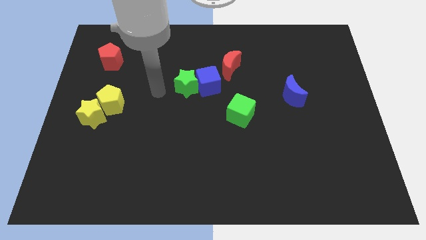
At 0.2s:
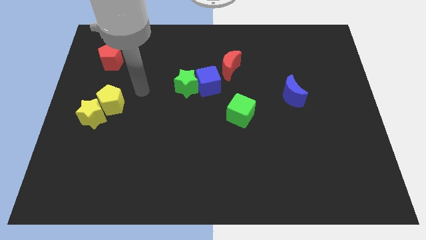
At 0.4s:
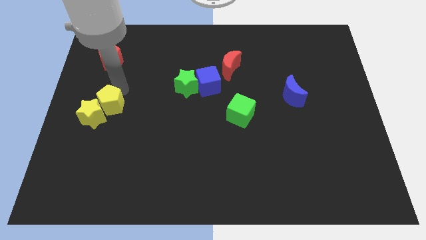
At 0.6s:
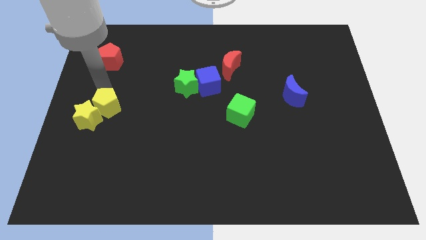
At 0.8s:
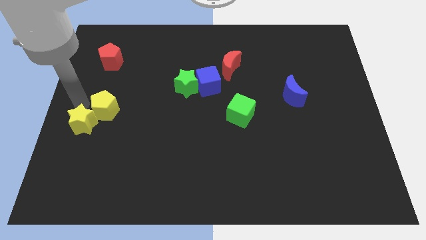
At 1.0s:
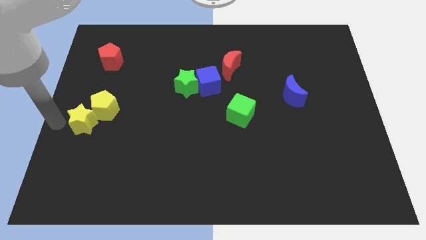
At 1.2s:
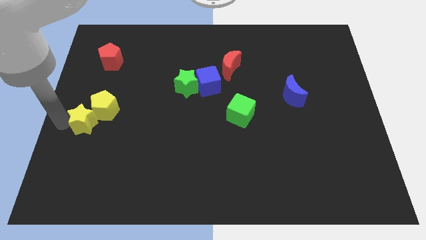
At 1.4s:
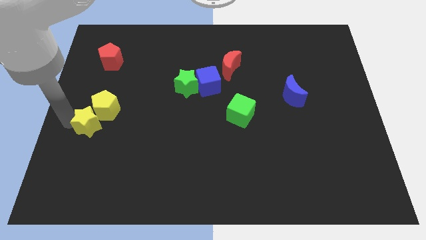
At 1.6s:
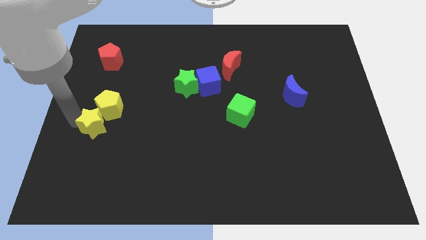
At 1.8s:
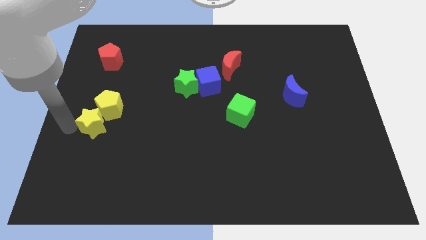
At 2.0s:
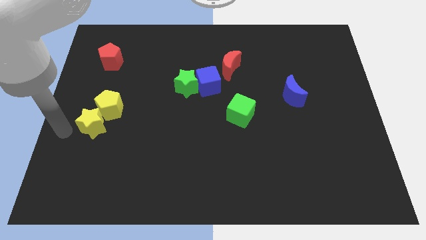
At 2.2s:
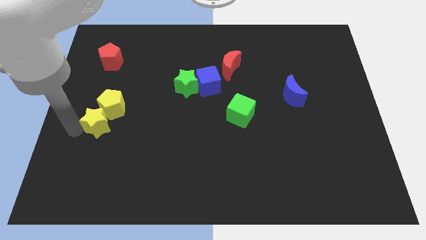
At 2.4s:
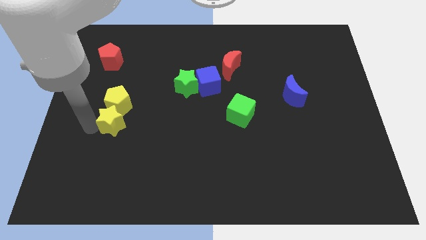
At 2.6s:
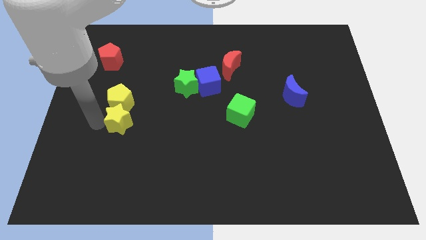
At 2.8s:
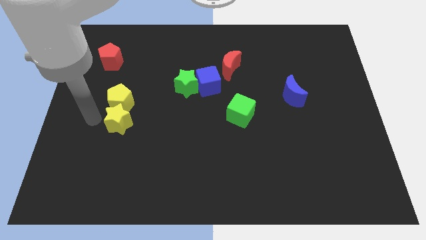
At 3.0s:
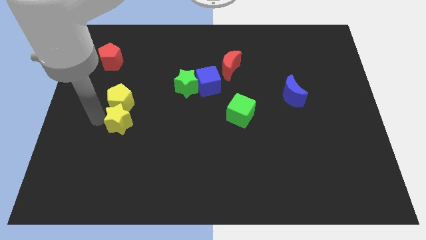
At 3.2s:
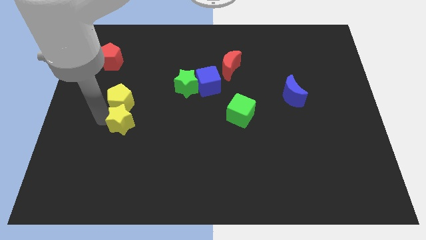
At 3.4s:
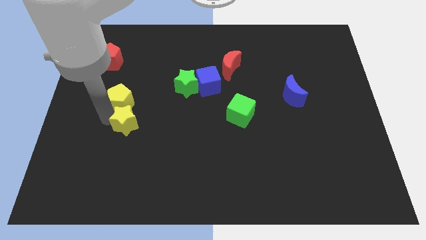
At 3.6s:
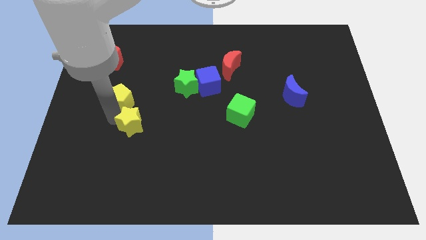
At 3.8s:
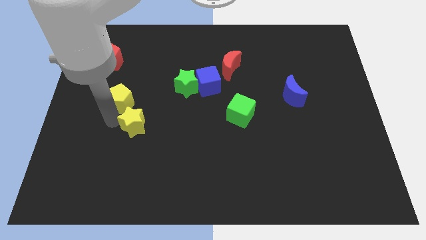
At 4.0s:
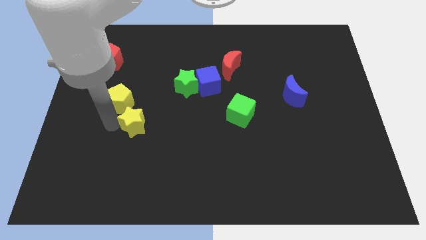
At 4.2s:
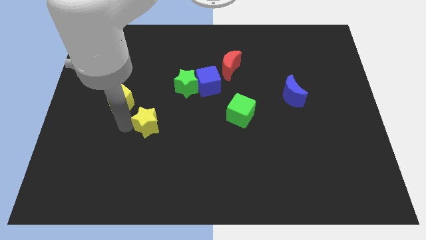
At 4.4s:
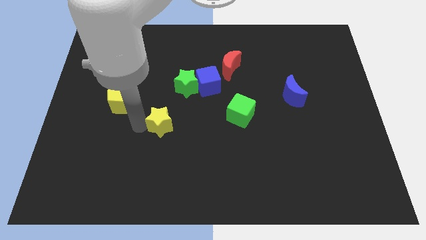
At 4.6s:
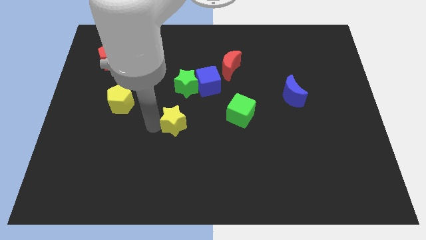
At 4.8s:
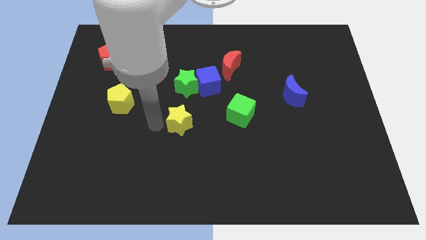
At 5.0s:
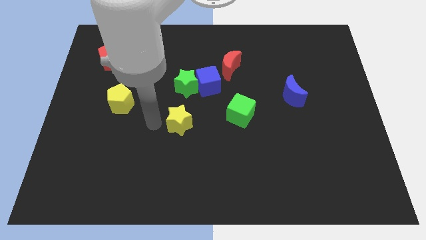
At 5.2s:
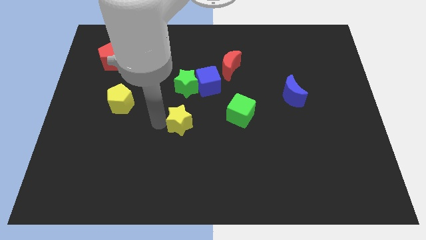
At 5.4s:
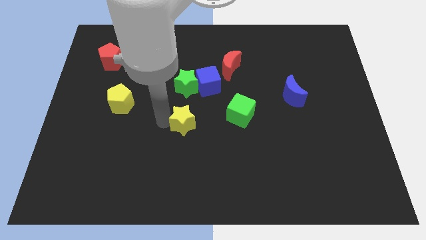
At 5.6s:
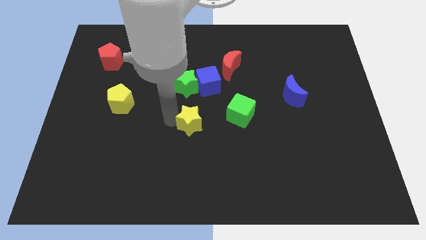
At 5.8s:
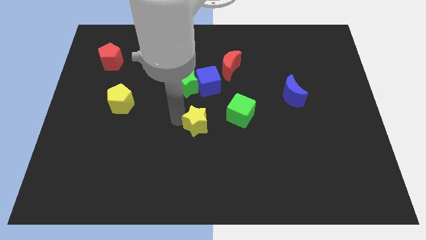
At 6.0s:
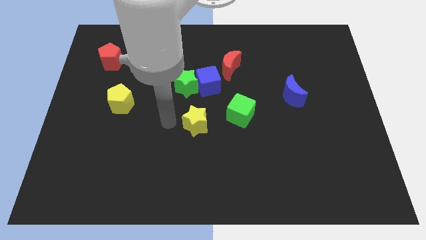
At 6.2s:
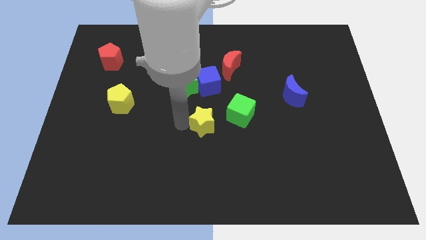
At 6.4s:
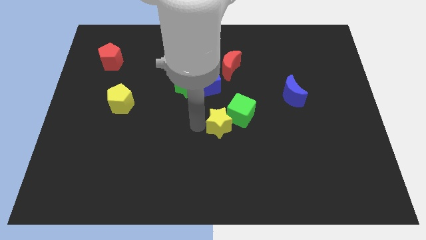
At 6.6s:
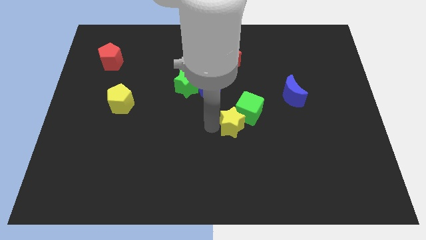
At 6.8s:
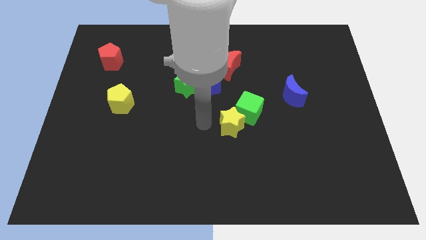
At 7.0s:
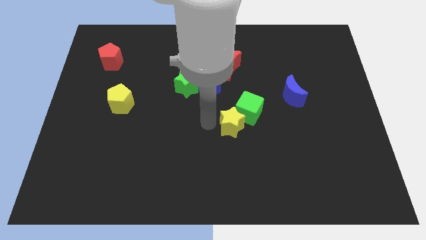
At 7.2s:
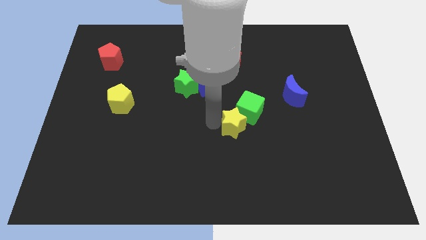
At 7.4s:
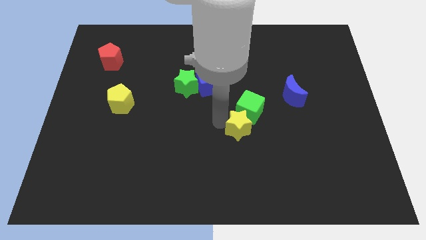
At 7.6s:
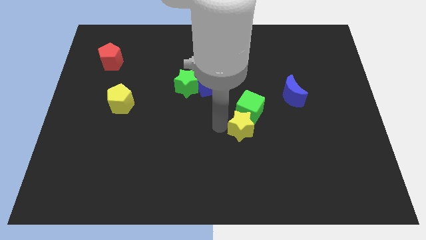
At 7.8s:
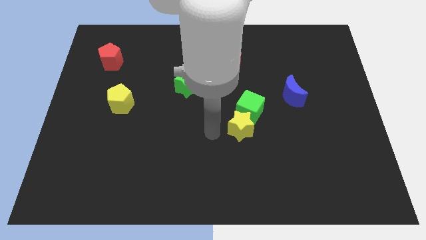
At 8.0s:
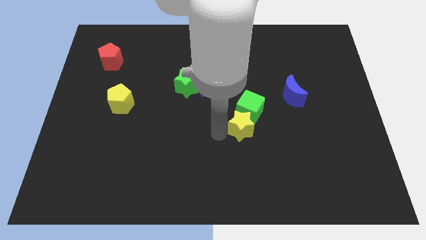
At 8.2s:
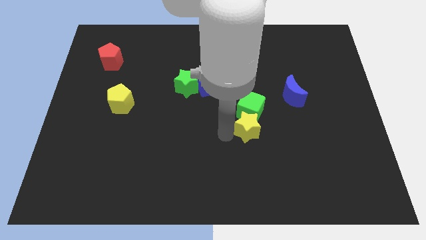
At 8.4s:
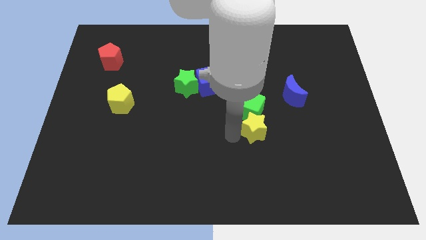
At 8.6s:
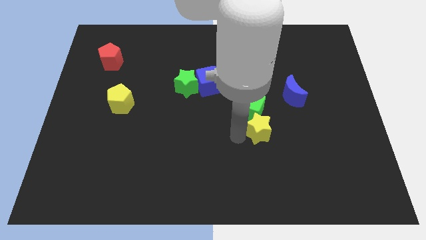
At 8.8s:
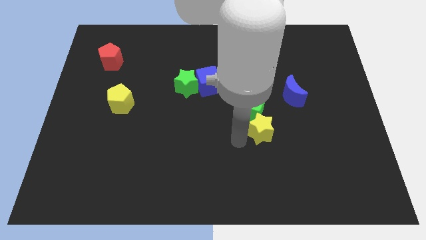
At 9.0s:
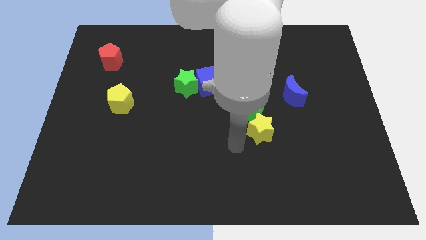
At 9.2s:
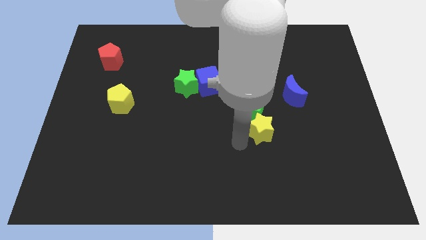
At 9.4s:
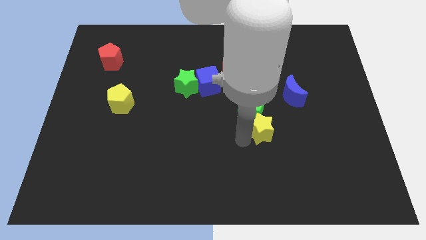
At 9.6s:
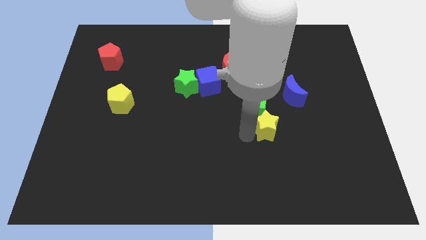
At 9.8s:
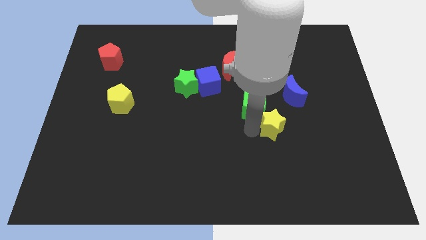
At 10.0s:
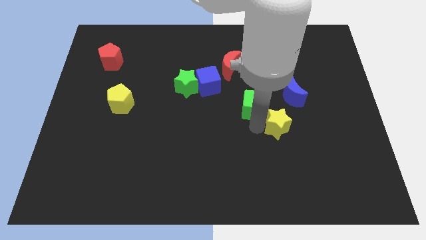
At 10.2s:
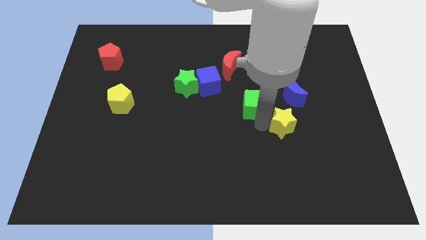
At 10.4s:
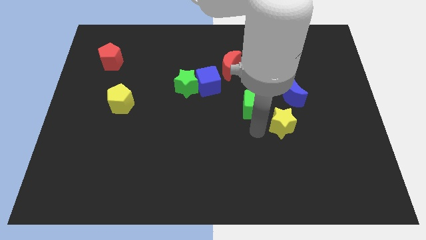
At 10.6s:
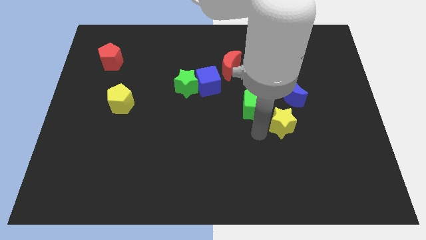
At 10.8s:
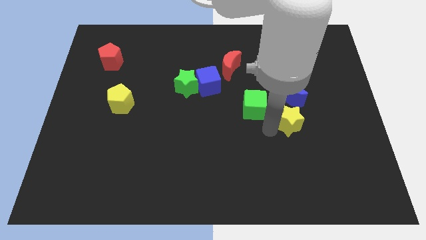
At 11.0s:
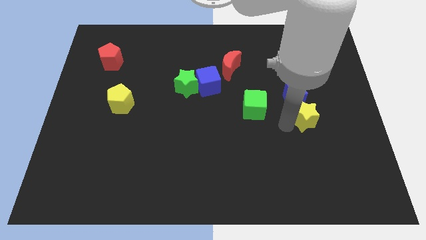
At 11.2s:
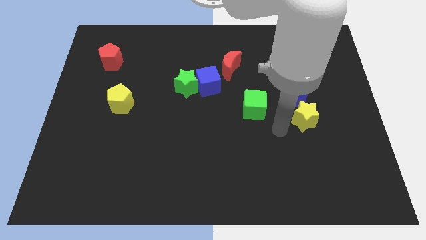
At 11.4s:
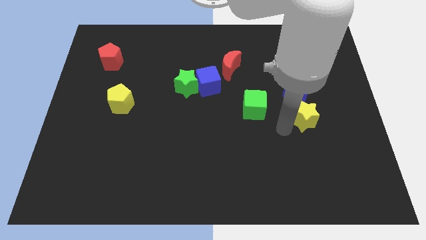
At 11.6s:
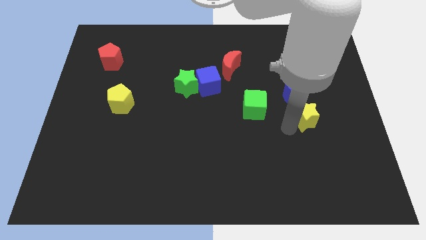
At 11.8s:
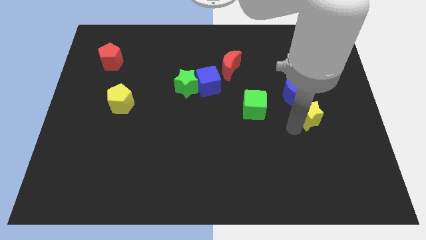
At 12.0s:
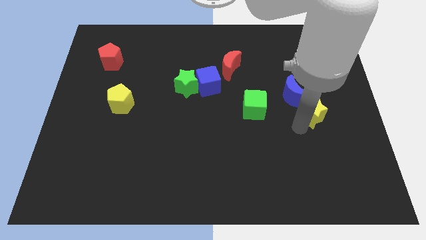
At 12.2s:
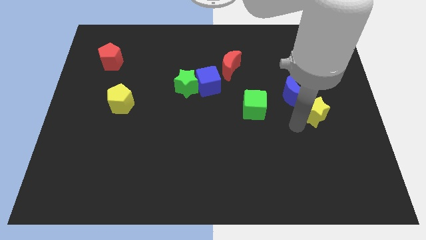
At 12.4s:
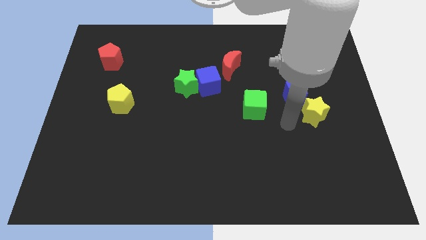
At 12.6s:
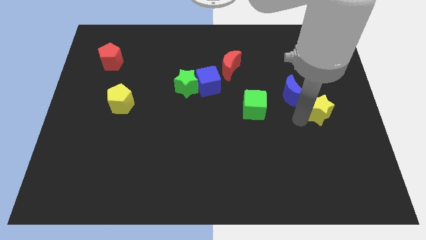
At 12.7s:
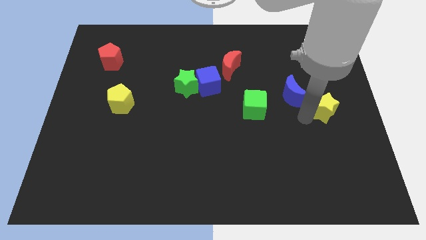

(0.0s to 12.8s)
slide the yellow star to the right side
